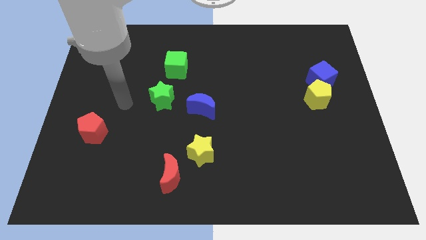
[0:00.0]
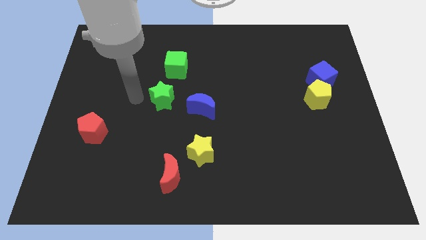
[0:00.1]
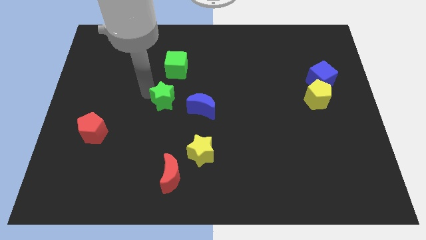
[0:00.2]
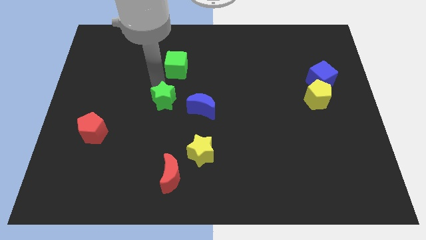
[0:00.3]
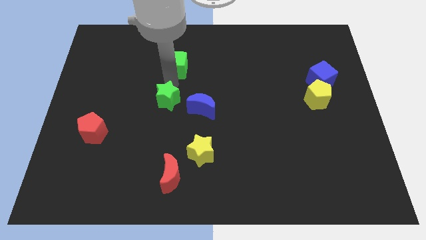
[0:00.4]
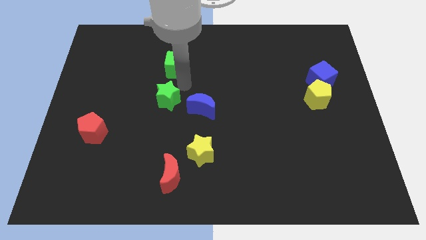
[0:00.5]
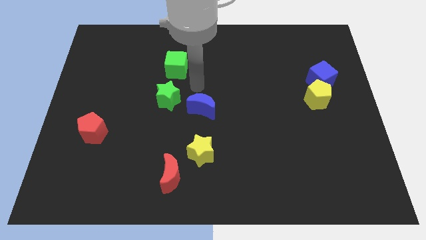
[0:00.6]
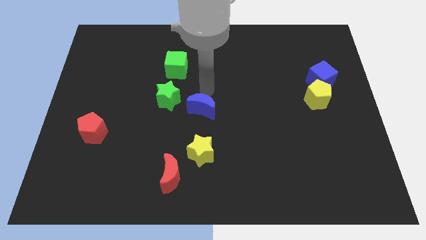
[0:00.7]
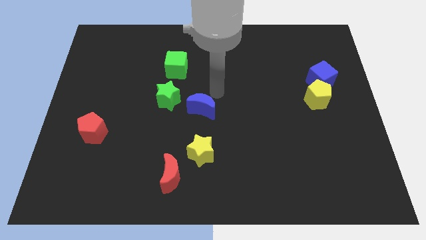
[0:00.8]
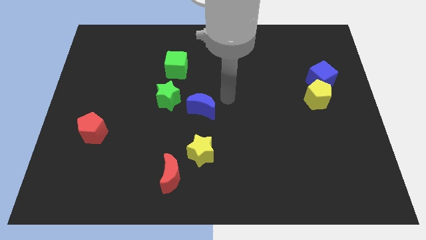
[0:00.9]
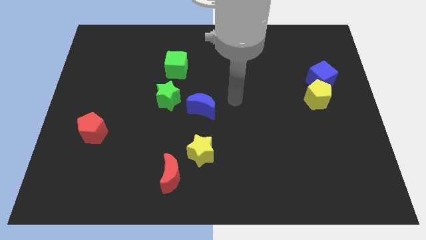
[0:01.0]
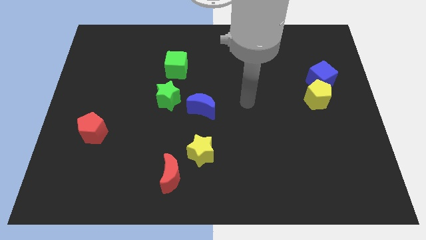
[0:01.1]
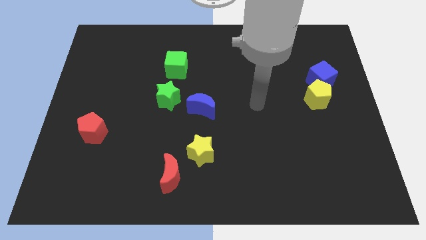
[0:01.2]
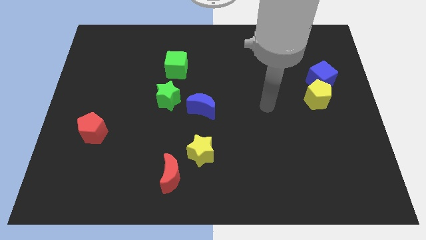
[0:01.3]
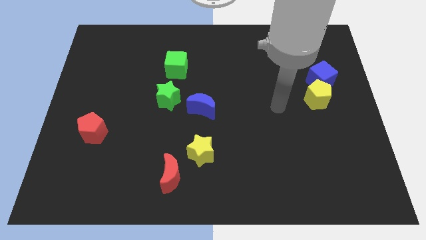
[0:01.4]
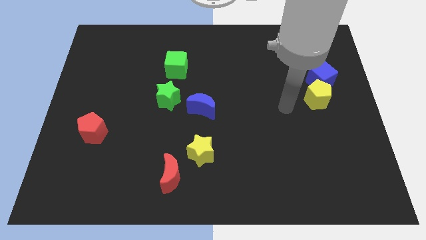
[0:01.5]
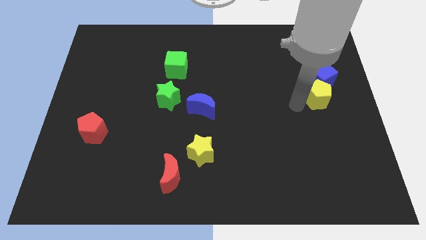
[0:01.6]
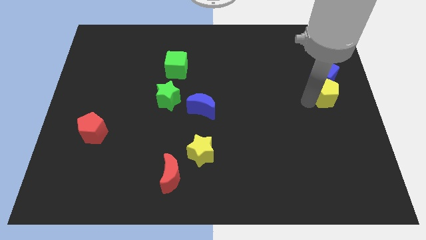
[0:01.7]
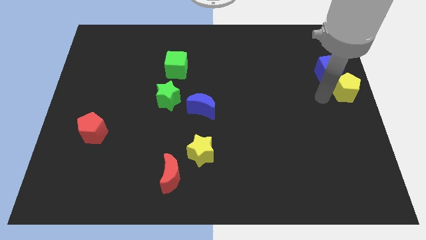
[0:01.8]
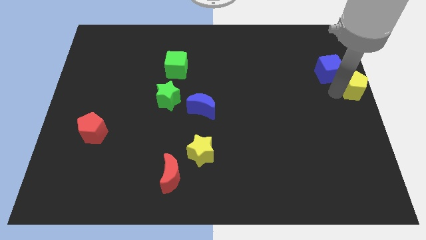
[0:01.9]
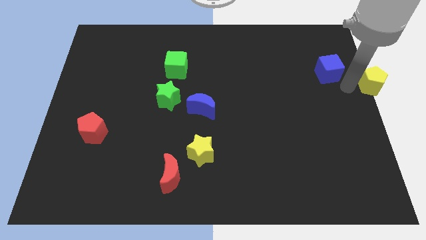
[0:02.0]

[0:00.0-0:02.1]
pull the blue cube apart from the yellow pentagon

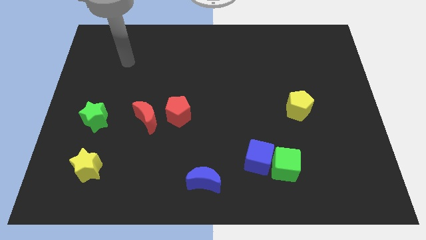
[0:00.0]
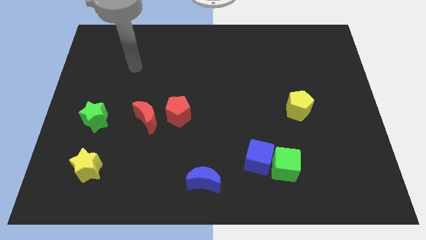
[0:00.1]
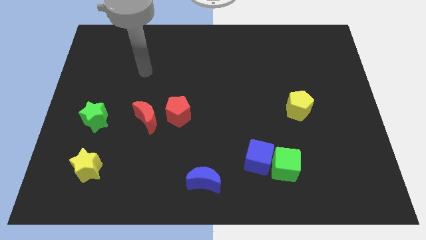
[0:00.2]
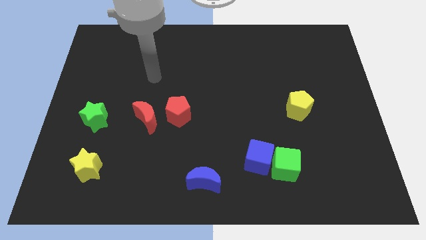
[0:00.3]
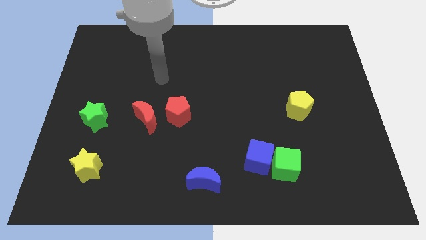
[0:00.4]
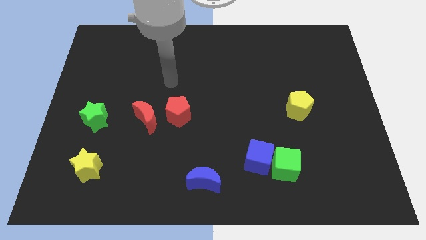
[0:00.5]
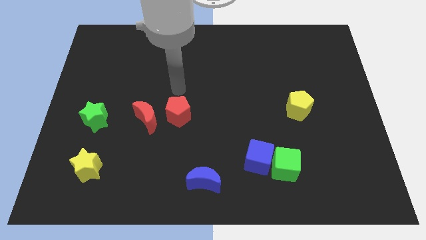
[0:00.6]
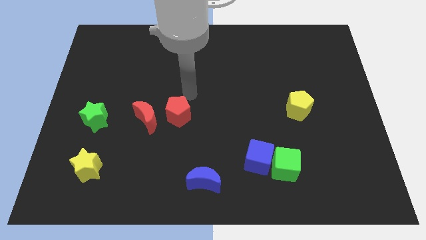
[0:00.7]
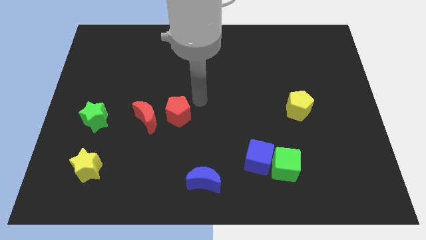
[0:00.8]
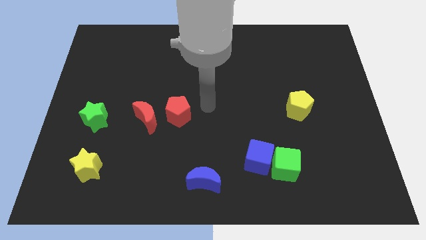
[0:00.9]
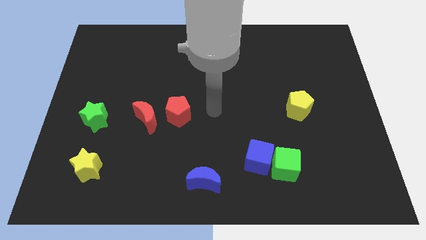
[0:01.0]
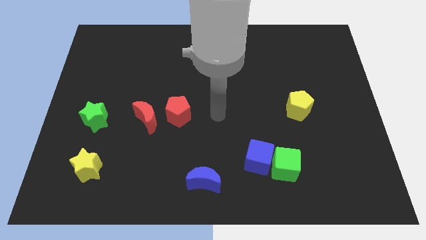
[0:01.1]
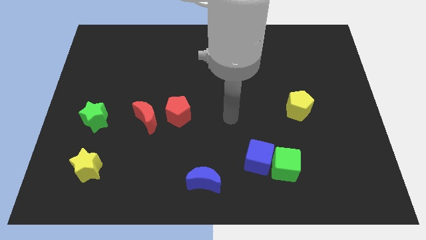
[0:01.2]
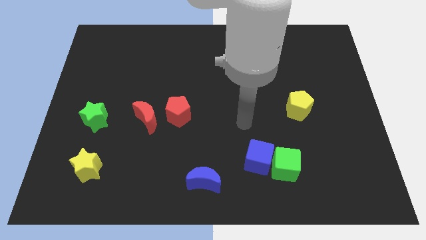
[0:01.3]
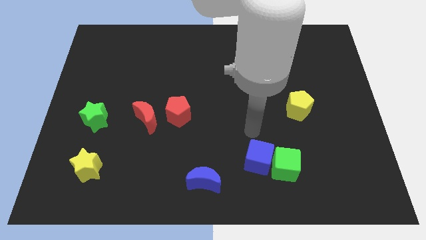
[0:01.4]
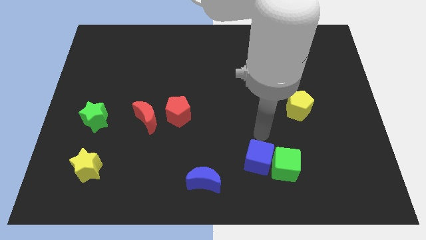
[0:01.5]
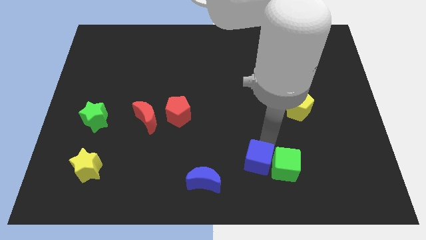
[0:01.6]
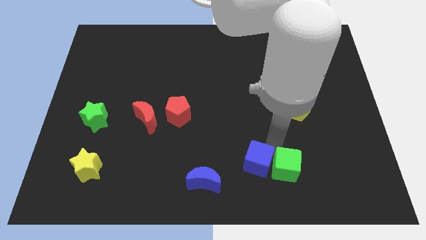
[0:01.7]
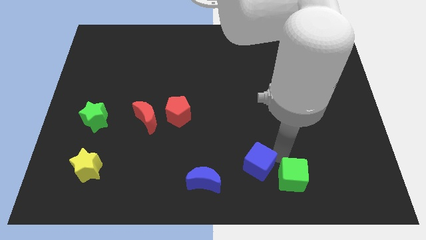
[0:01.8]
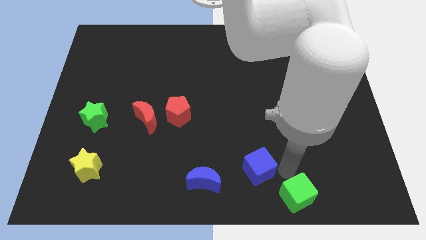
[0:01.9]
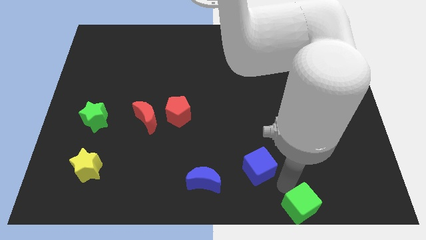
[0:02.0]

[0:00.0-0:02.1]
pull the blue cube apart from the green cube

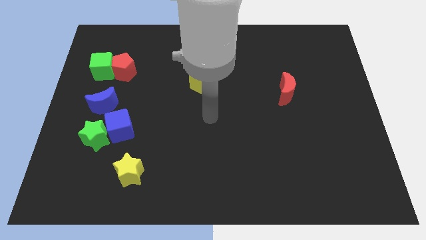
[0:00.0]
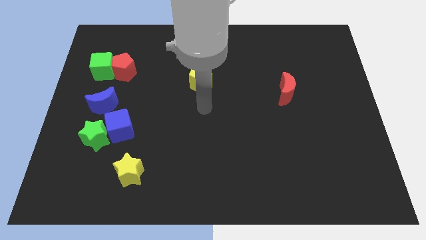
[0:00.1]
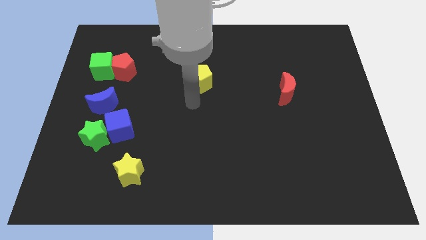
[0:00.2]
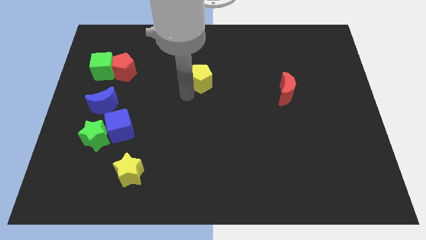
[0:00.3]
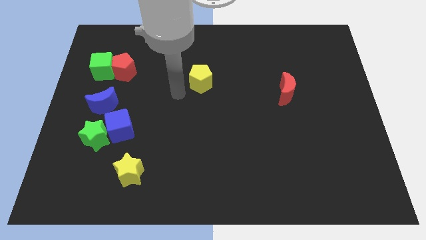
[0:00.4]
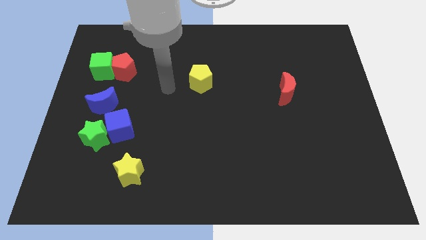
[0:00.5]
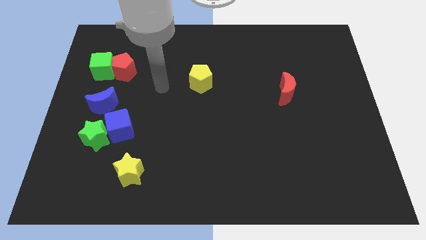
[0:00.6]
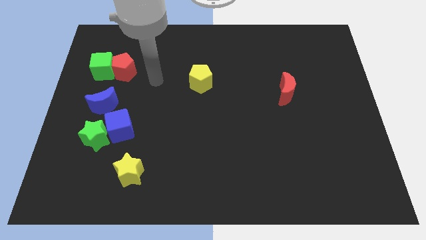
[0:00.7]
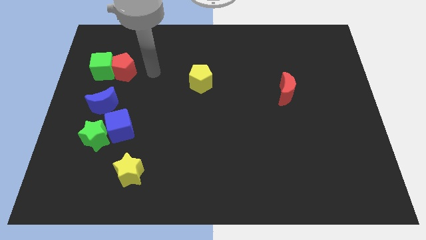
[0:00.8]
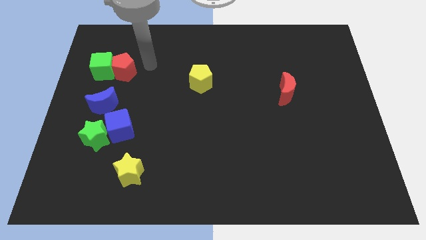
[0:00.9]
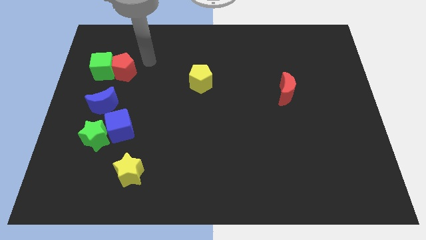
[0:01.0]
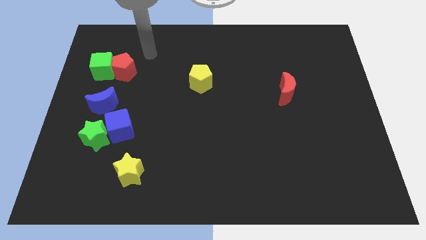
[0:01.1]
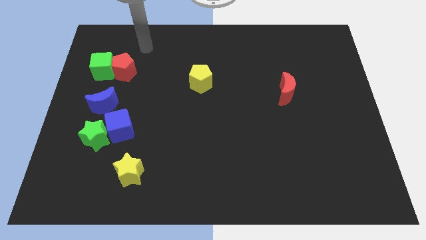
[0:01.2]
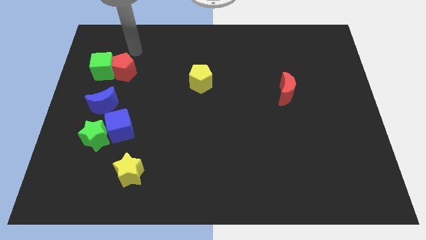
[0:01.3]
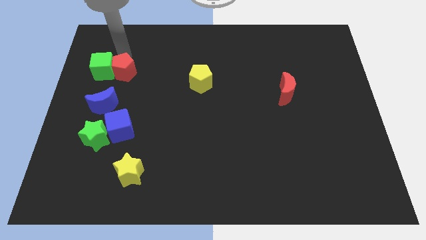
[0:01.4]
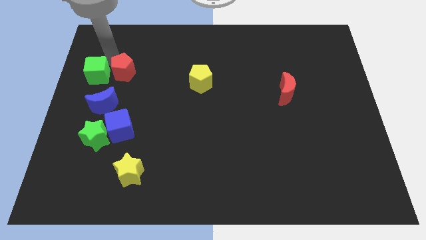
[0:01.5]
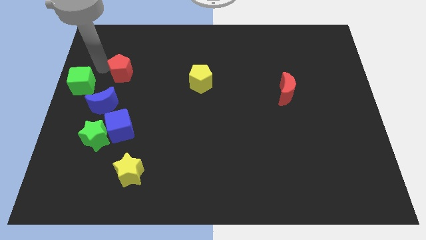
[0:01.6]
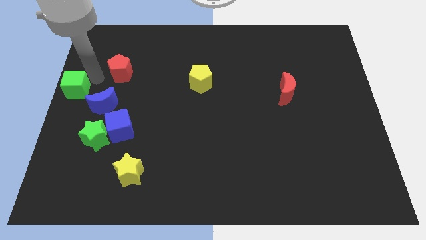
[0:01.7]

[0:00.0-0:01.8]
separate the red pentagon from the green cube

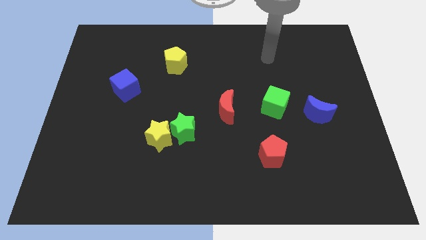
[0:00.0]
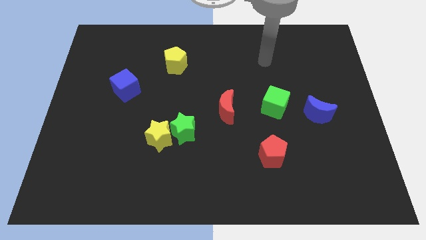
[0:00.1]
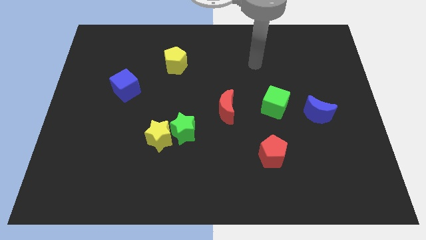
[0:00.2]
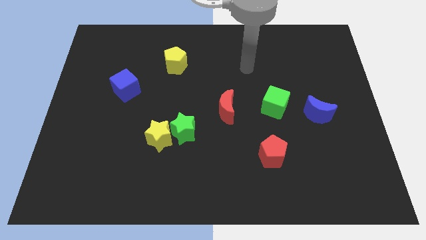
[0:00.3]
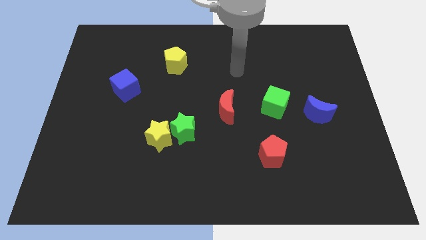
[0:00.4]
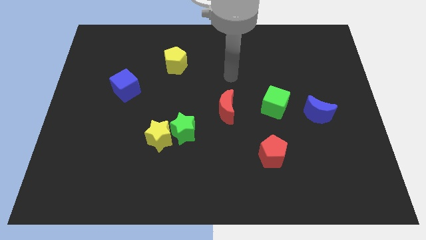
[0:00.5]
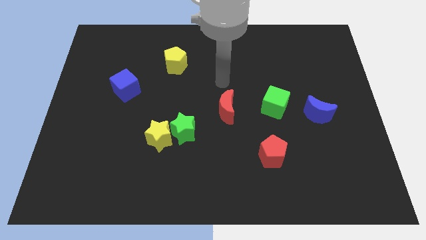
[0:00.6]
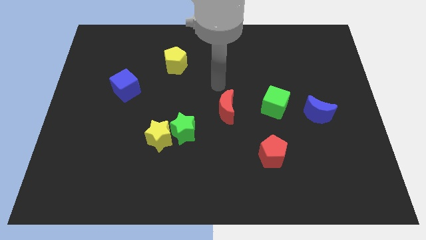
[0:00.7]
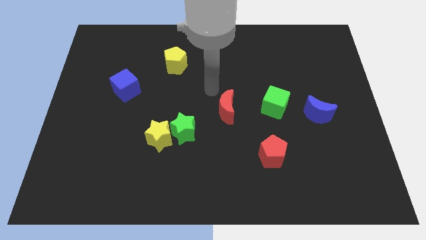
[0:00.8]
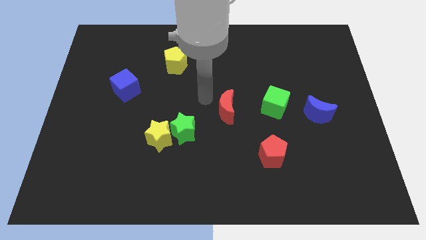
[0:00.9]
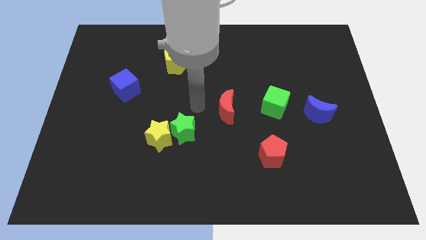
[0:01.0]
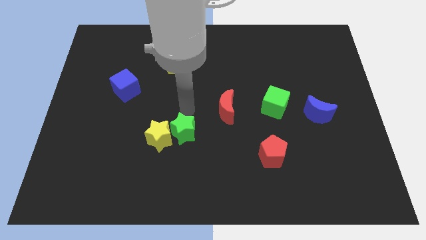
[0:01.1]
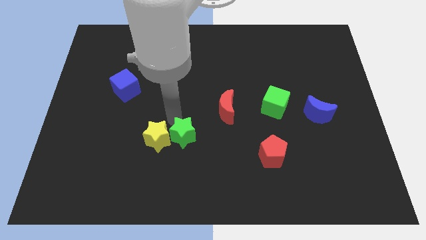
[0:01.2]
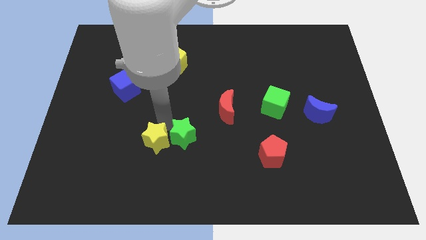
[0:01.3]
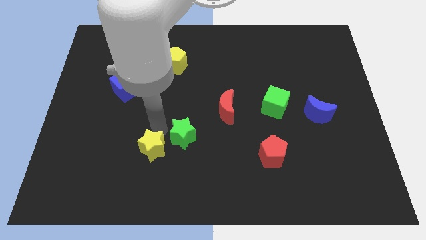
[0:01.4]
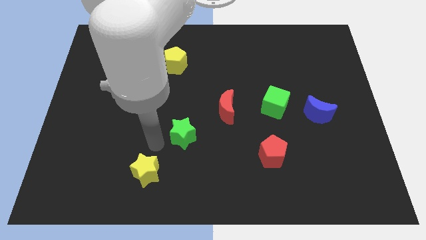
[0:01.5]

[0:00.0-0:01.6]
separate the green star from the yellow star

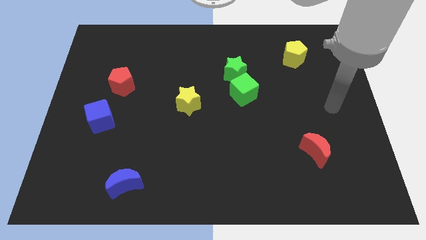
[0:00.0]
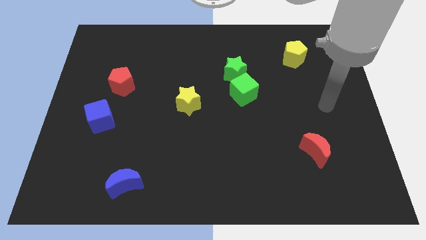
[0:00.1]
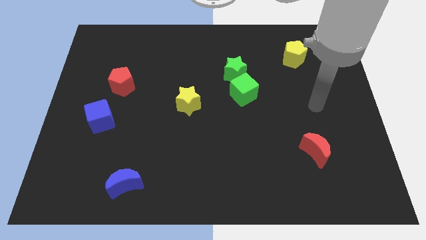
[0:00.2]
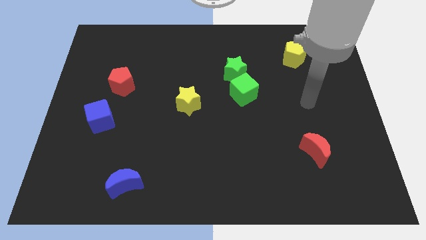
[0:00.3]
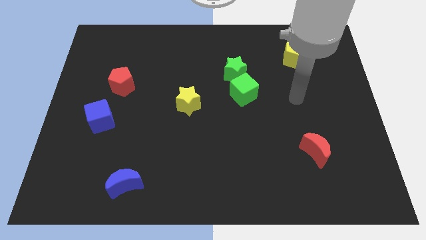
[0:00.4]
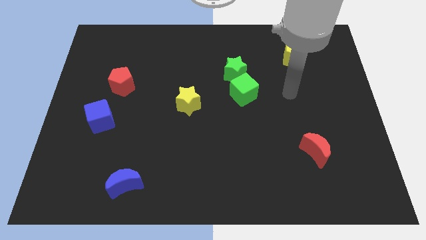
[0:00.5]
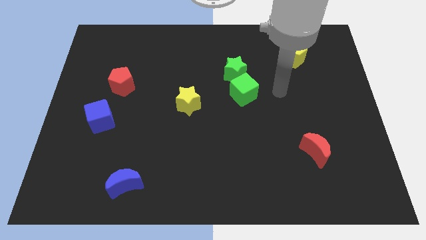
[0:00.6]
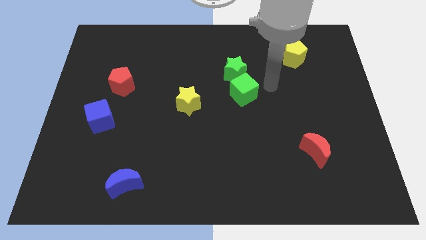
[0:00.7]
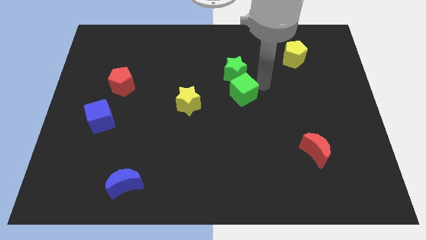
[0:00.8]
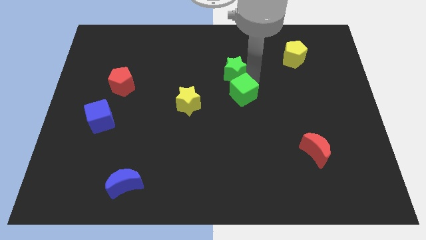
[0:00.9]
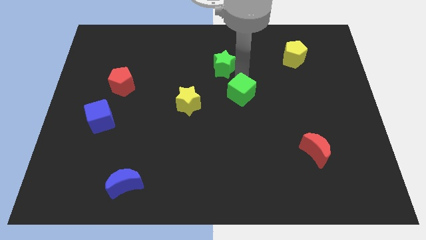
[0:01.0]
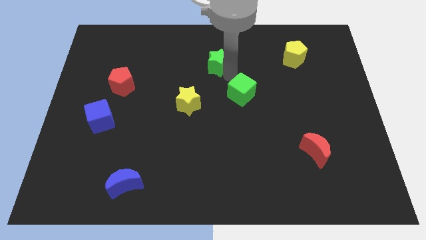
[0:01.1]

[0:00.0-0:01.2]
move the green cube away from the green star

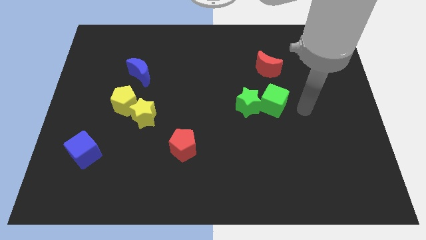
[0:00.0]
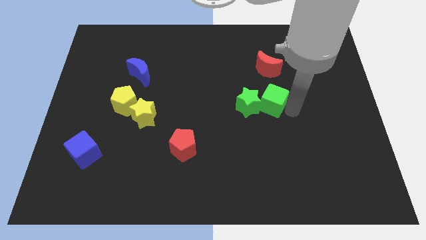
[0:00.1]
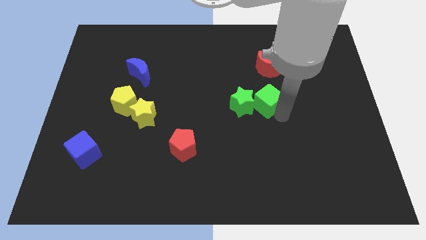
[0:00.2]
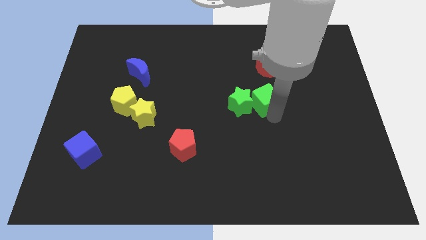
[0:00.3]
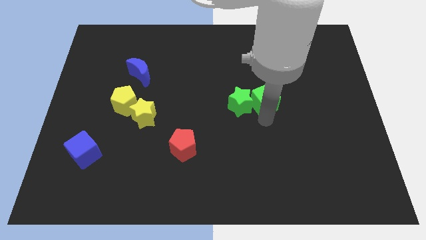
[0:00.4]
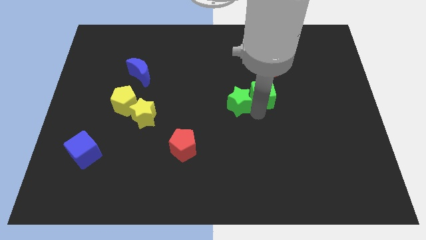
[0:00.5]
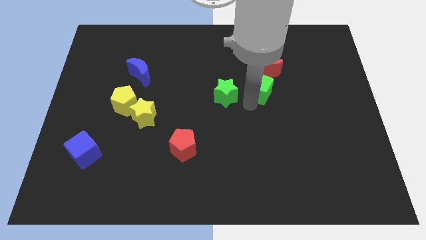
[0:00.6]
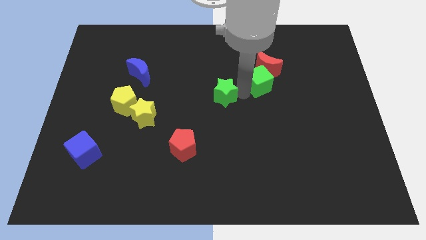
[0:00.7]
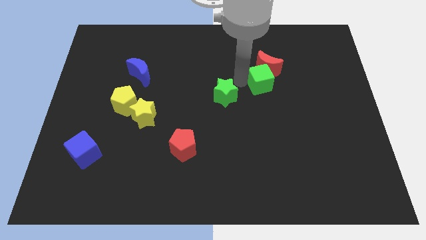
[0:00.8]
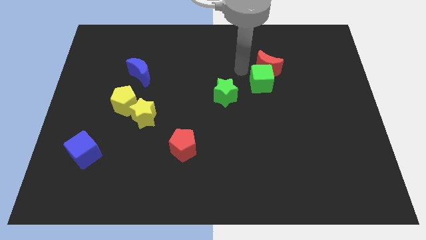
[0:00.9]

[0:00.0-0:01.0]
pull the green cube apart from the green star
